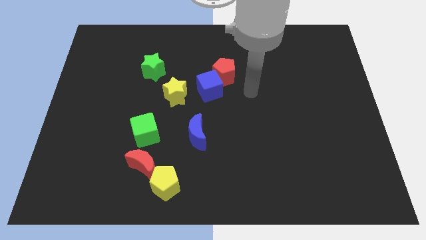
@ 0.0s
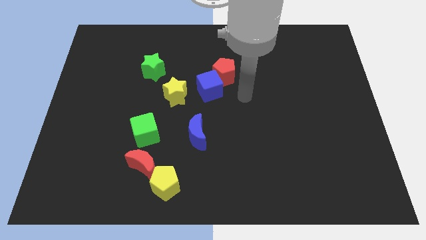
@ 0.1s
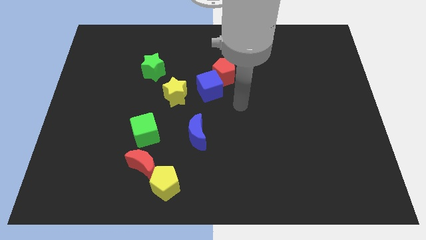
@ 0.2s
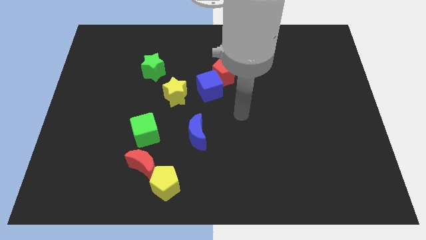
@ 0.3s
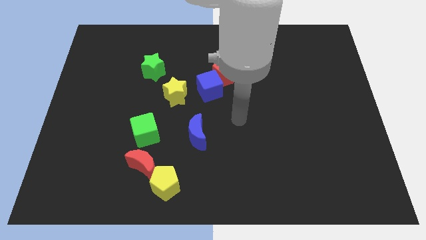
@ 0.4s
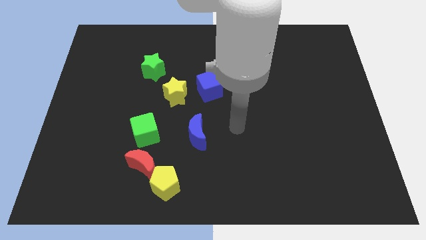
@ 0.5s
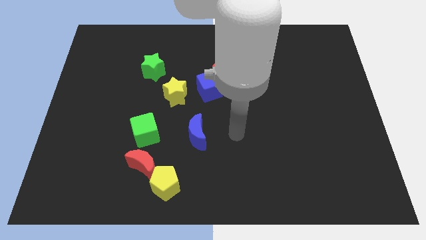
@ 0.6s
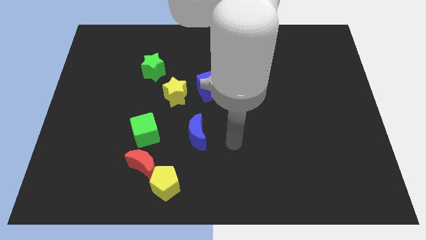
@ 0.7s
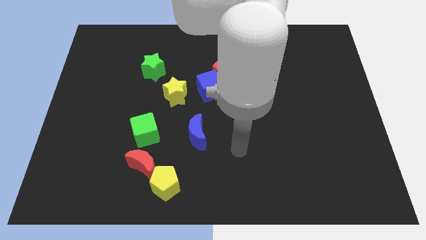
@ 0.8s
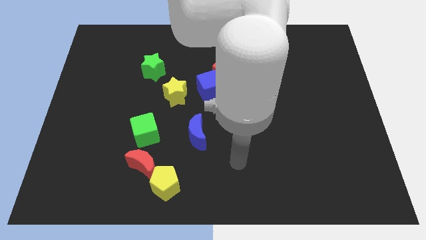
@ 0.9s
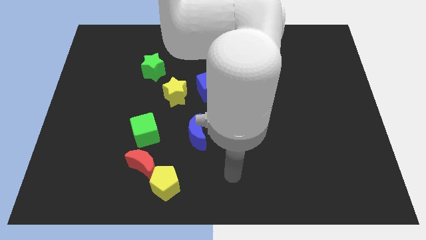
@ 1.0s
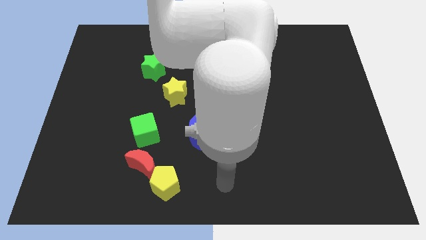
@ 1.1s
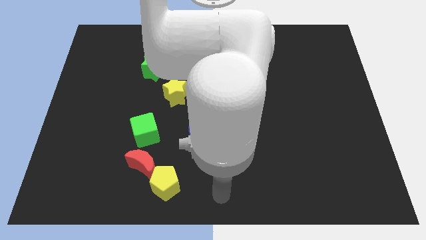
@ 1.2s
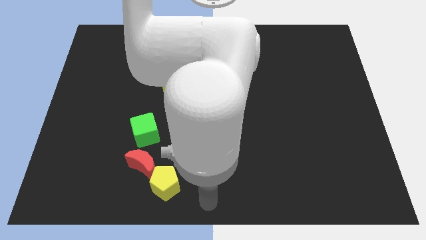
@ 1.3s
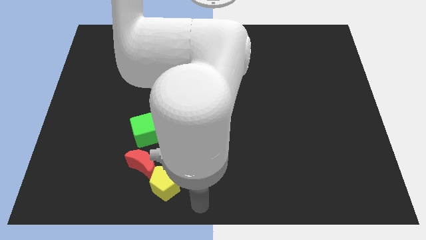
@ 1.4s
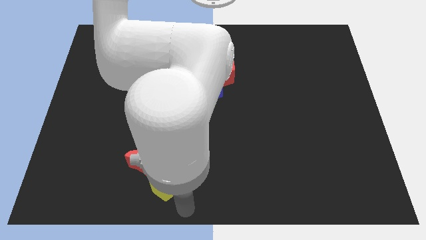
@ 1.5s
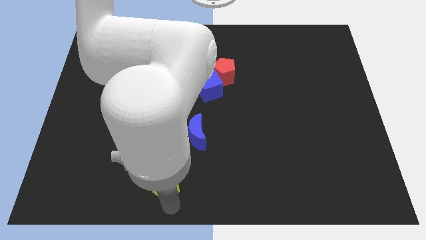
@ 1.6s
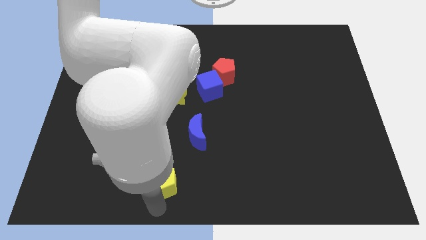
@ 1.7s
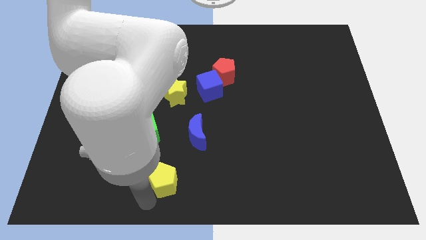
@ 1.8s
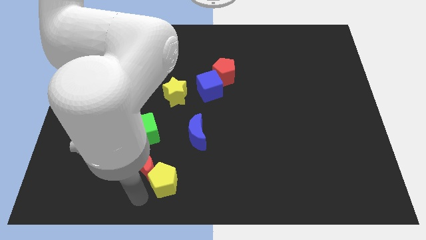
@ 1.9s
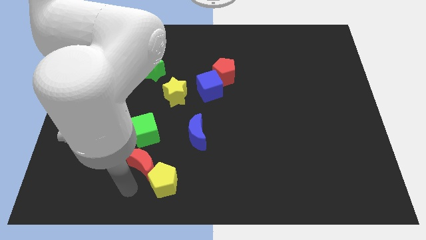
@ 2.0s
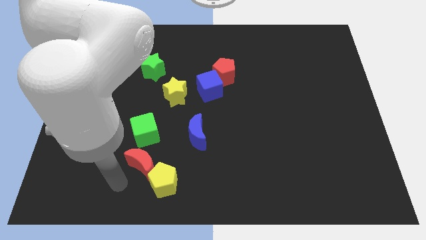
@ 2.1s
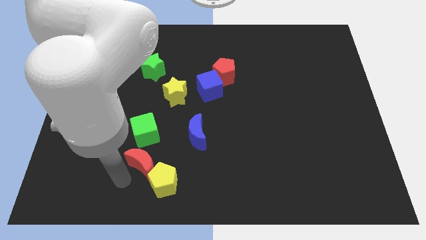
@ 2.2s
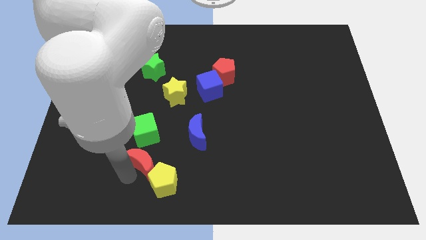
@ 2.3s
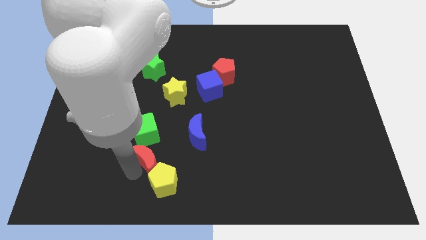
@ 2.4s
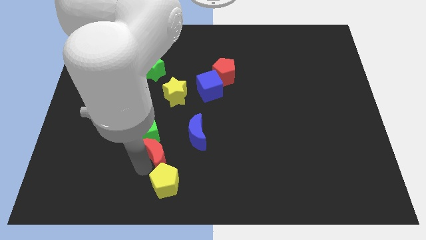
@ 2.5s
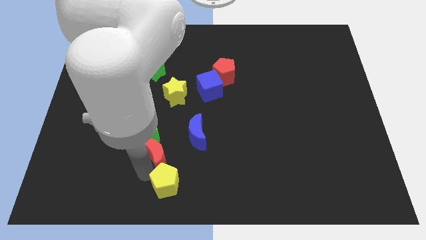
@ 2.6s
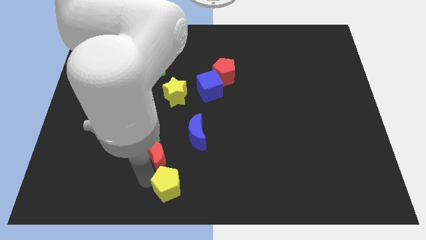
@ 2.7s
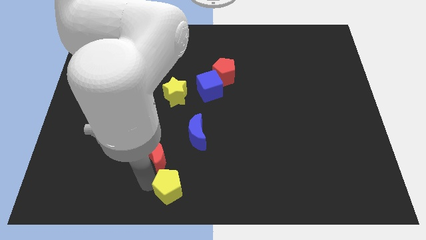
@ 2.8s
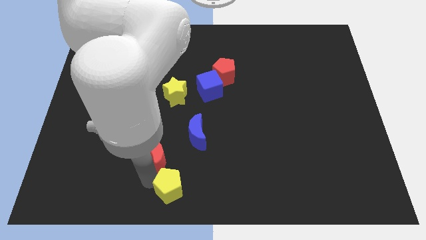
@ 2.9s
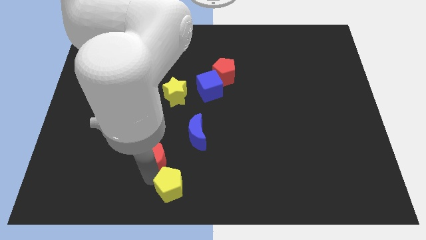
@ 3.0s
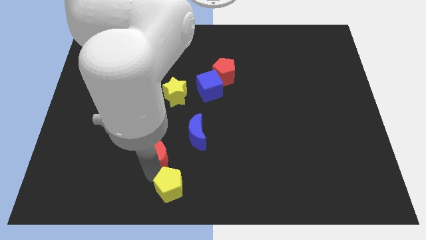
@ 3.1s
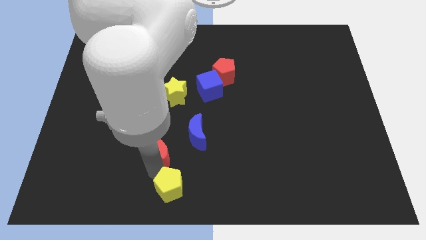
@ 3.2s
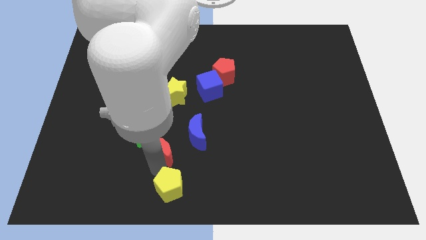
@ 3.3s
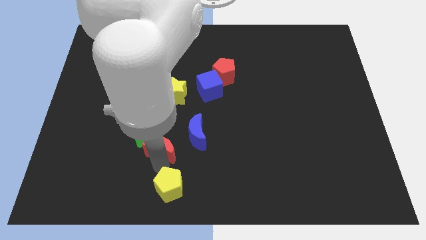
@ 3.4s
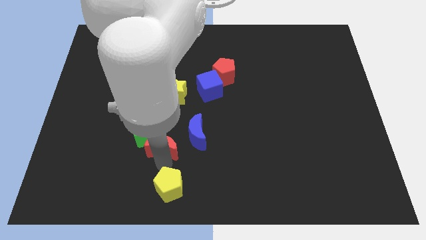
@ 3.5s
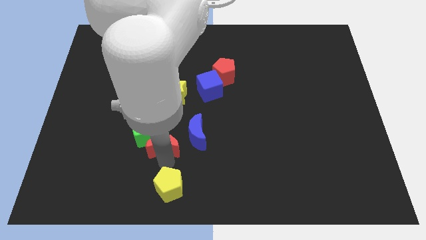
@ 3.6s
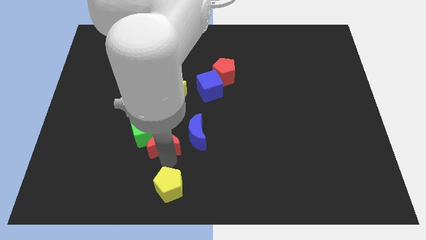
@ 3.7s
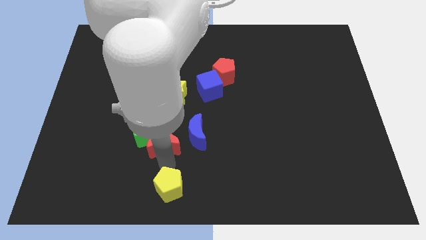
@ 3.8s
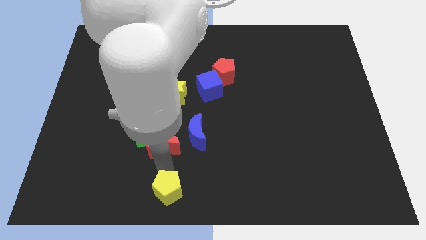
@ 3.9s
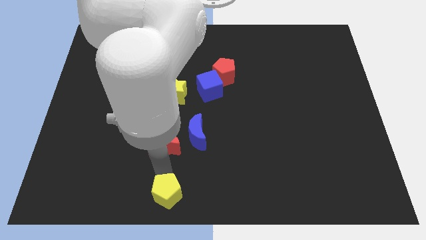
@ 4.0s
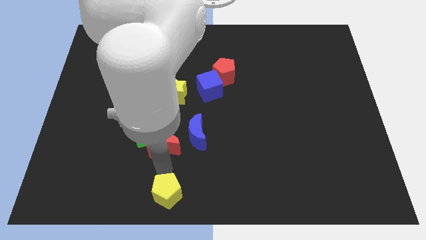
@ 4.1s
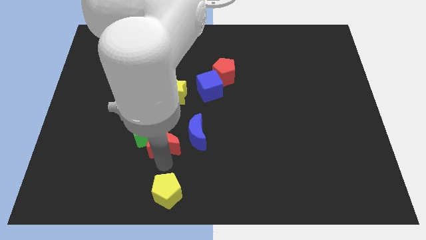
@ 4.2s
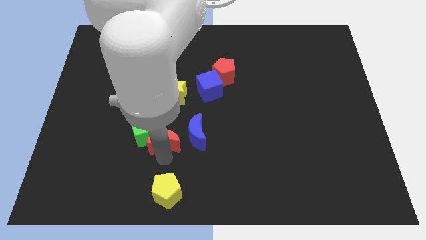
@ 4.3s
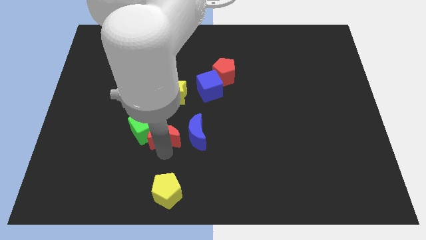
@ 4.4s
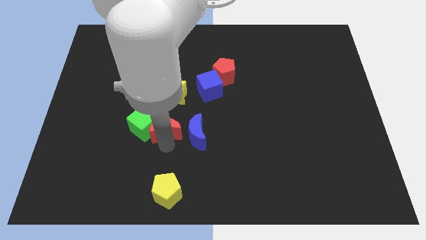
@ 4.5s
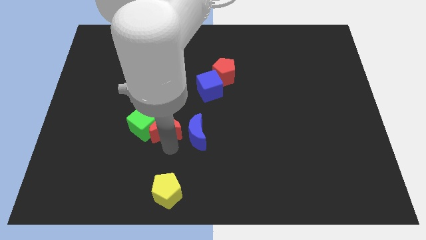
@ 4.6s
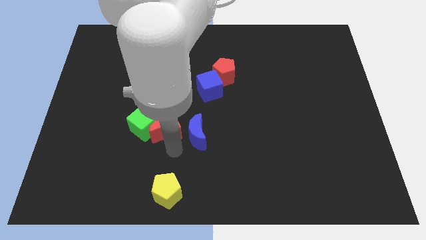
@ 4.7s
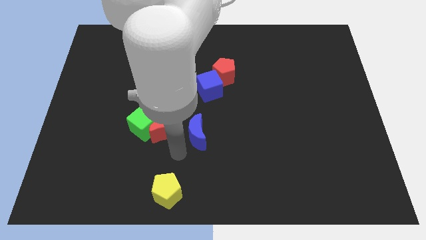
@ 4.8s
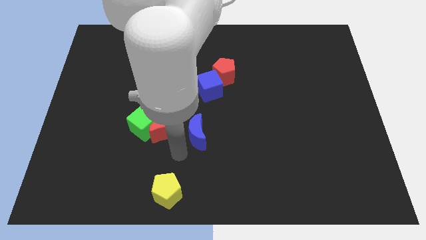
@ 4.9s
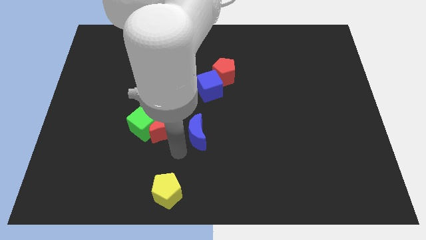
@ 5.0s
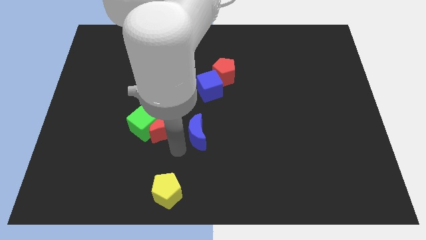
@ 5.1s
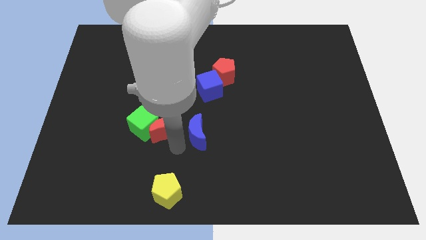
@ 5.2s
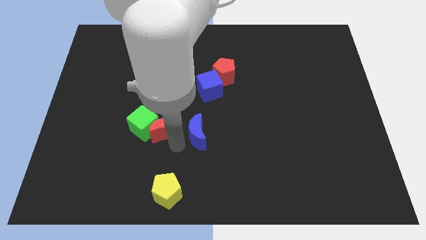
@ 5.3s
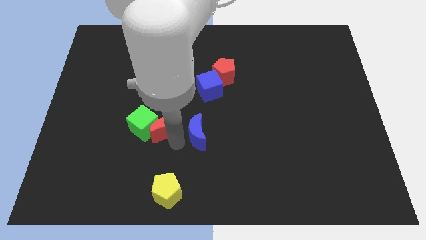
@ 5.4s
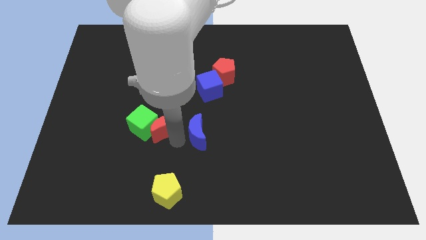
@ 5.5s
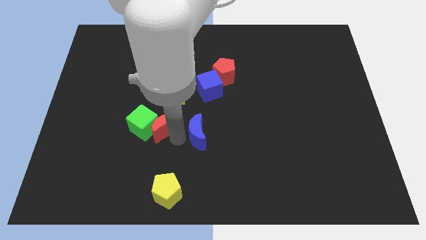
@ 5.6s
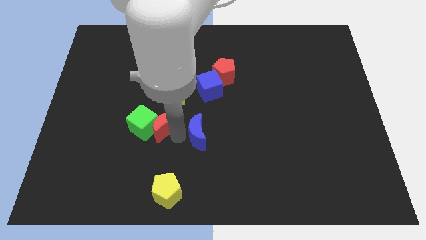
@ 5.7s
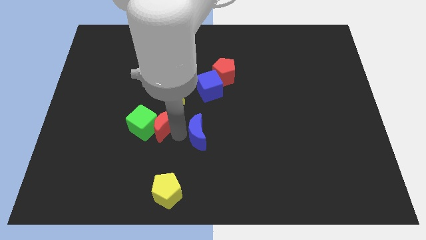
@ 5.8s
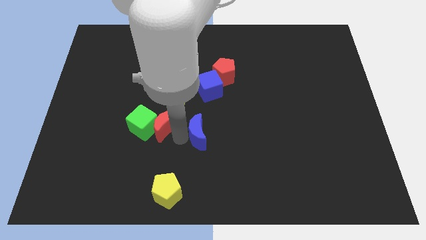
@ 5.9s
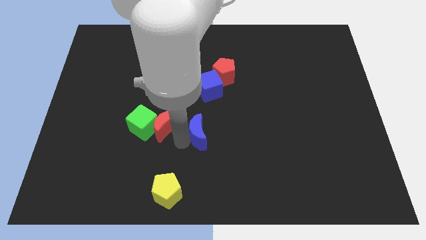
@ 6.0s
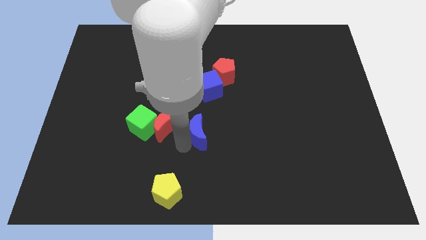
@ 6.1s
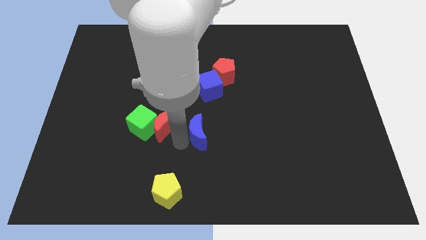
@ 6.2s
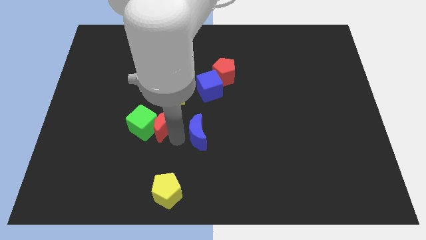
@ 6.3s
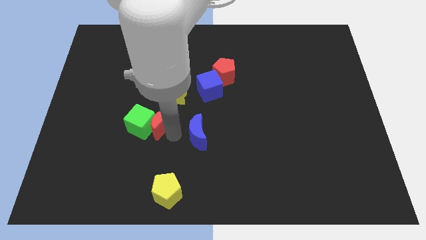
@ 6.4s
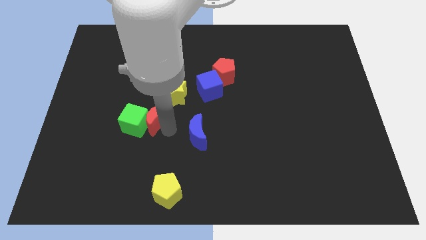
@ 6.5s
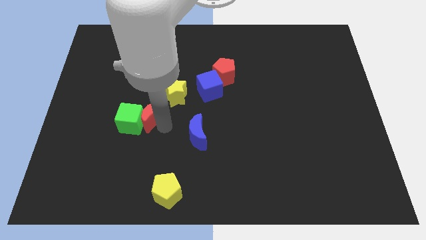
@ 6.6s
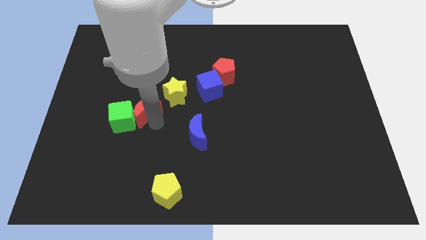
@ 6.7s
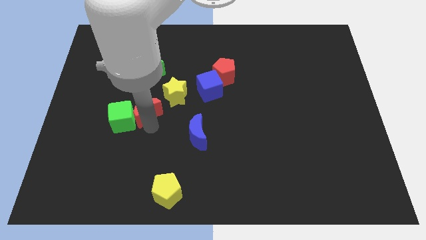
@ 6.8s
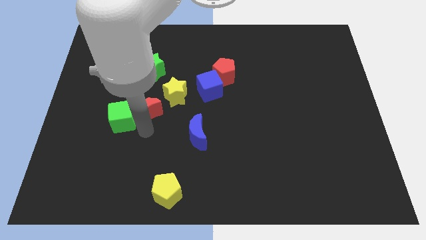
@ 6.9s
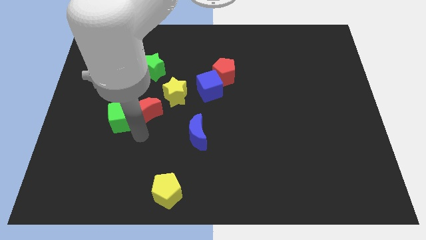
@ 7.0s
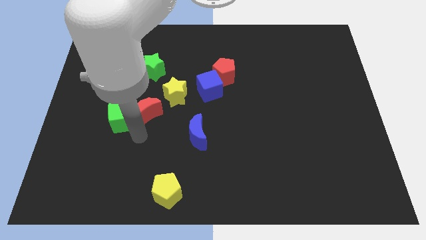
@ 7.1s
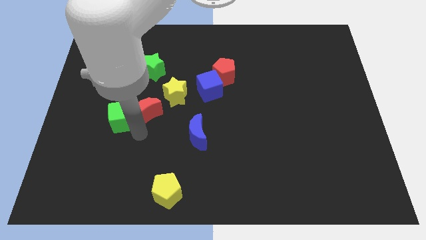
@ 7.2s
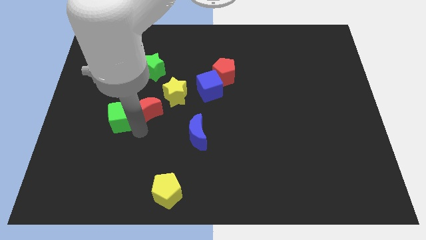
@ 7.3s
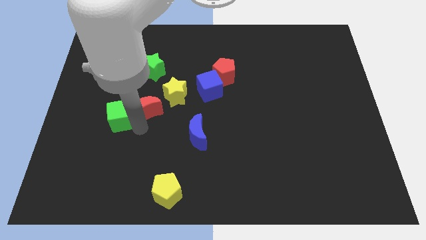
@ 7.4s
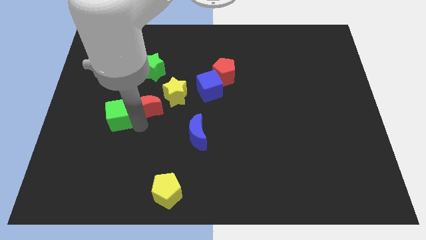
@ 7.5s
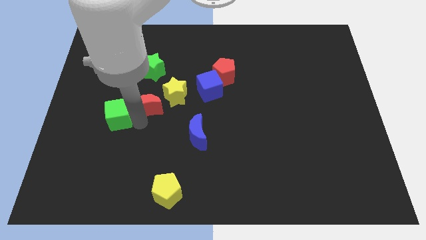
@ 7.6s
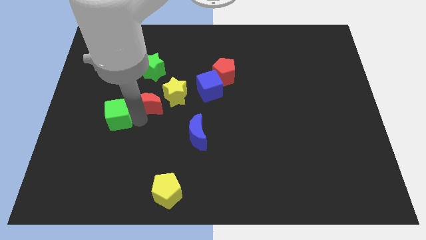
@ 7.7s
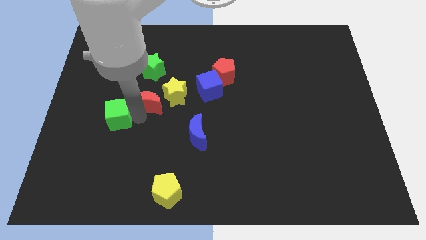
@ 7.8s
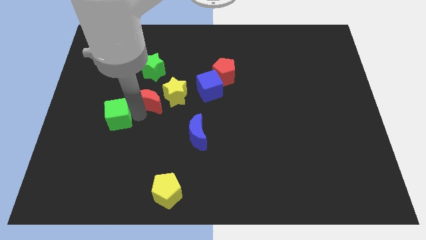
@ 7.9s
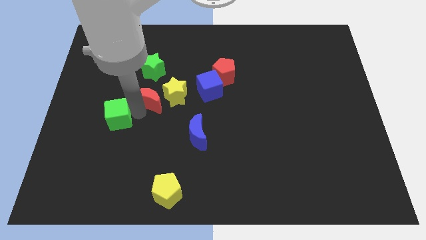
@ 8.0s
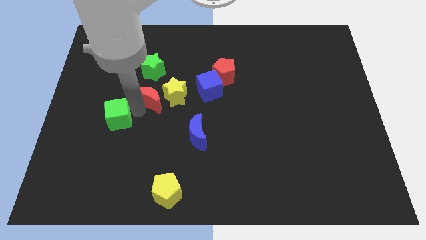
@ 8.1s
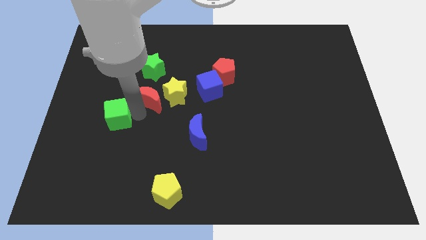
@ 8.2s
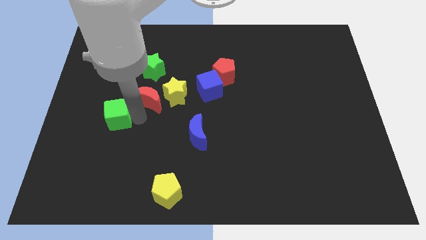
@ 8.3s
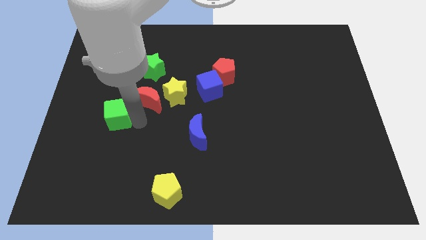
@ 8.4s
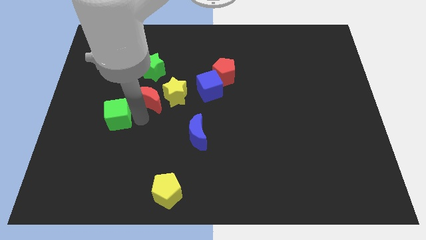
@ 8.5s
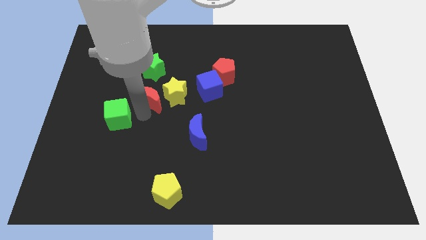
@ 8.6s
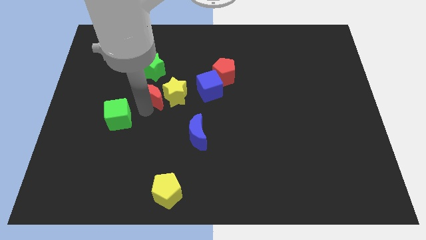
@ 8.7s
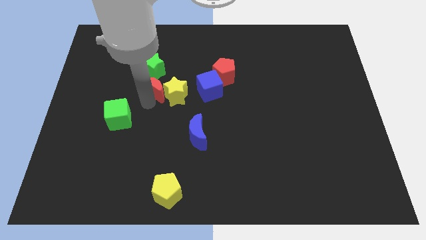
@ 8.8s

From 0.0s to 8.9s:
slide the red moon upwards
